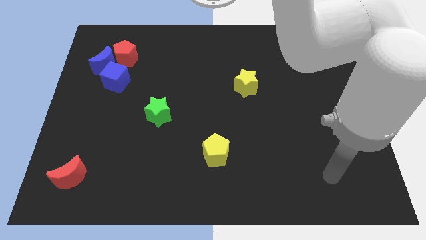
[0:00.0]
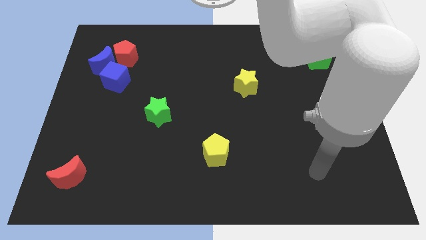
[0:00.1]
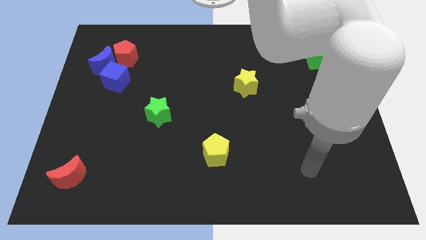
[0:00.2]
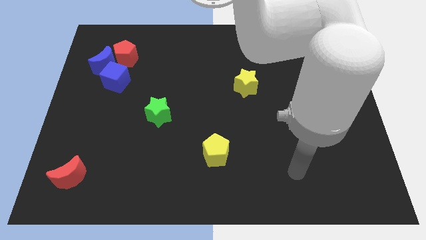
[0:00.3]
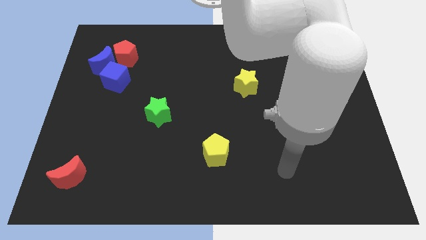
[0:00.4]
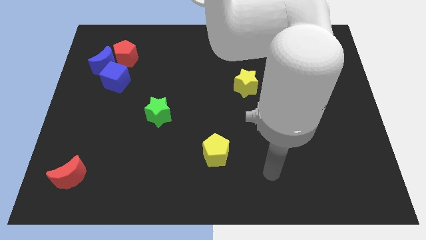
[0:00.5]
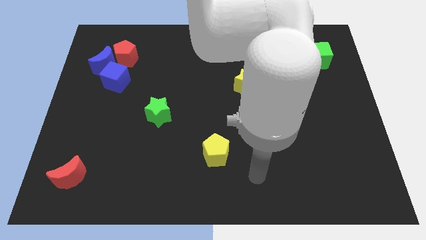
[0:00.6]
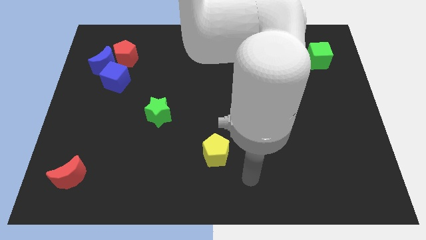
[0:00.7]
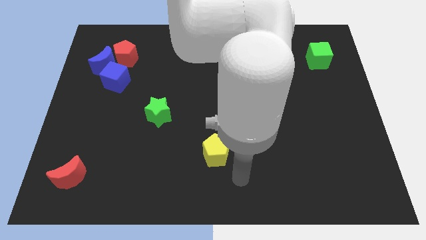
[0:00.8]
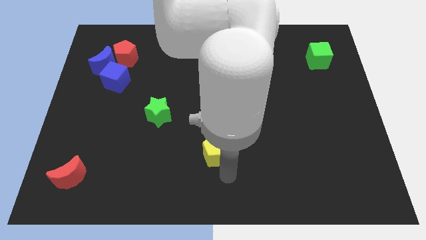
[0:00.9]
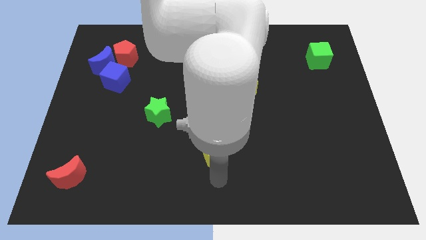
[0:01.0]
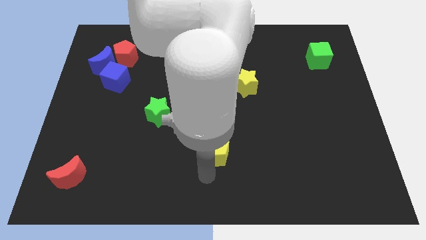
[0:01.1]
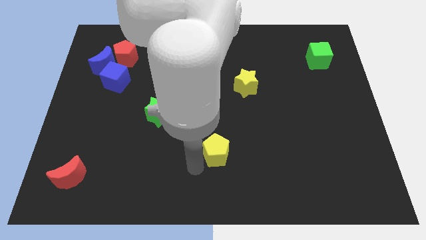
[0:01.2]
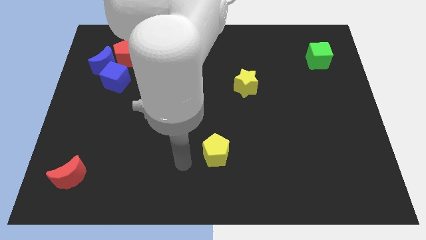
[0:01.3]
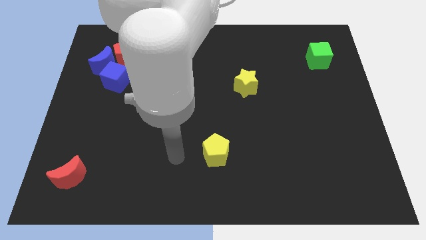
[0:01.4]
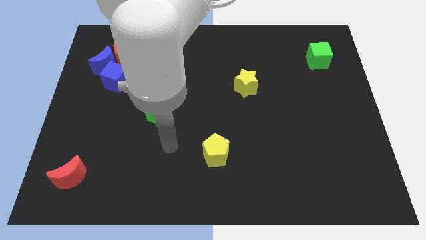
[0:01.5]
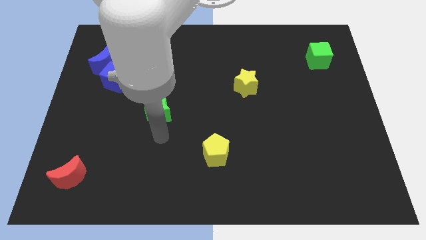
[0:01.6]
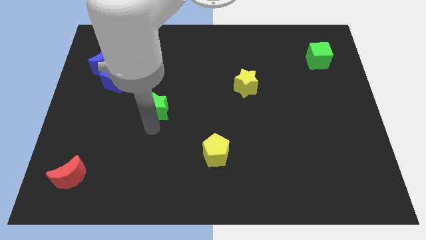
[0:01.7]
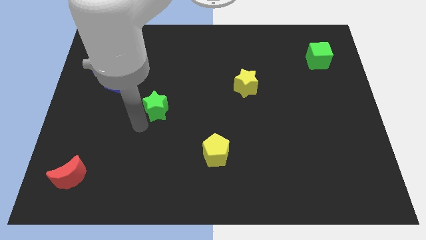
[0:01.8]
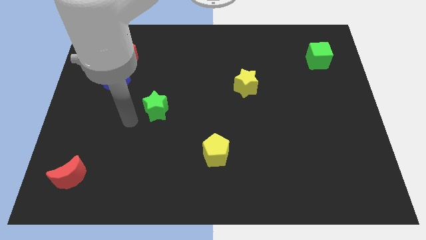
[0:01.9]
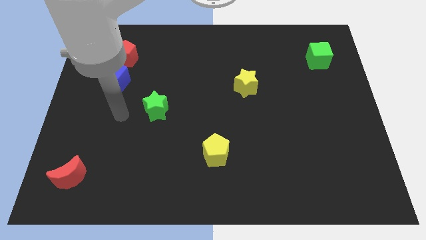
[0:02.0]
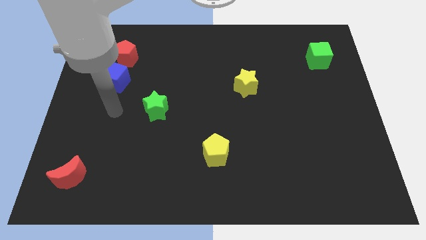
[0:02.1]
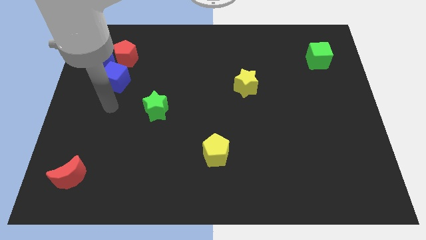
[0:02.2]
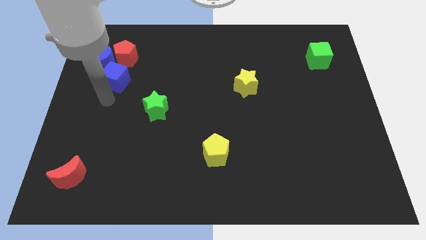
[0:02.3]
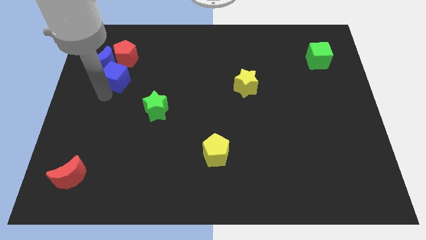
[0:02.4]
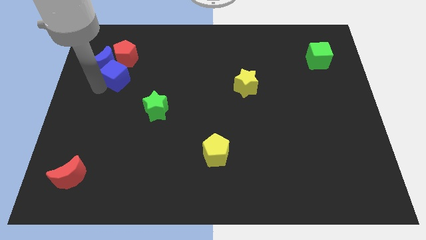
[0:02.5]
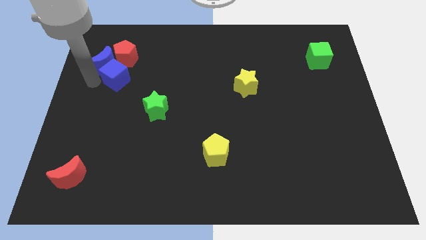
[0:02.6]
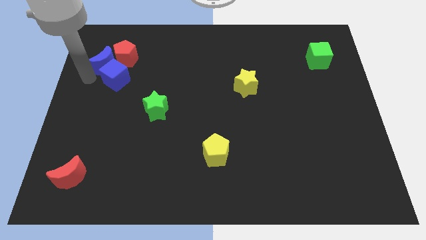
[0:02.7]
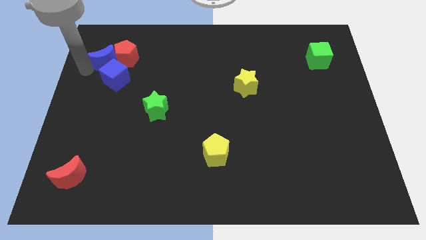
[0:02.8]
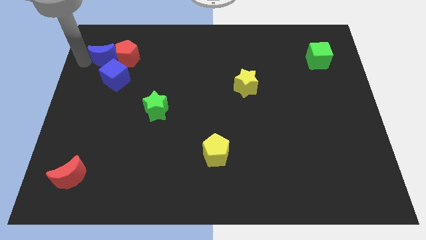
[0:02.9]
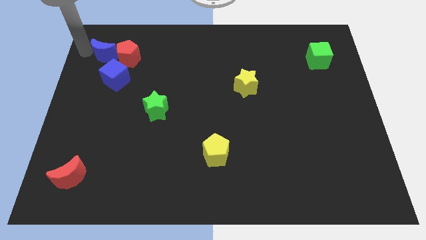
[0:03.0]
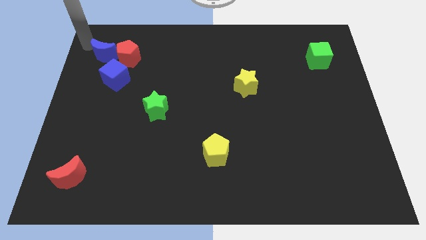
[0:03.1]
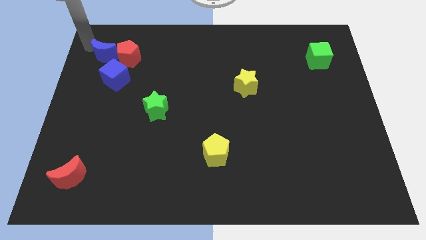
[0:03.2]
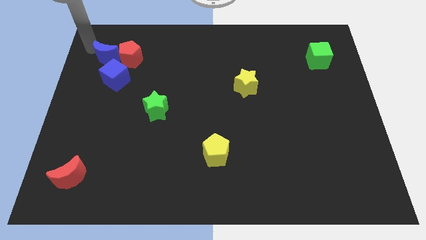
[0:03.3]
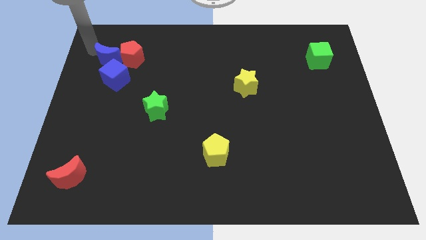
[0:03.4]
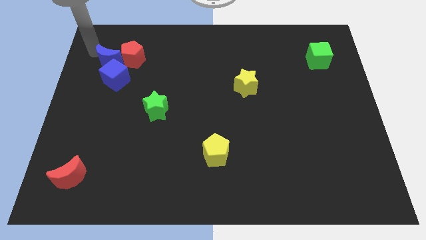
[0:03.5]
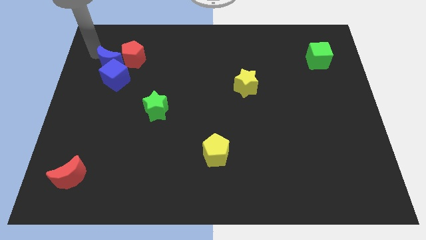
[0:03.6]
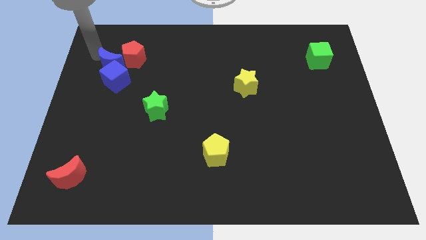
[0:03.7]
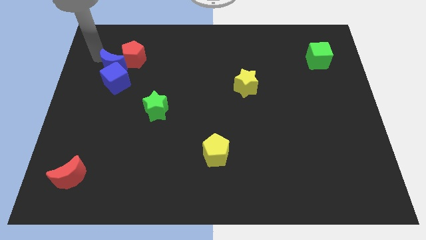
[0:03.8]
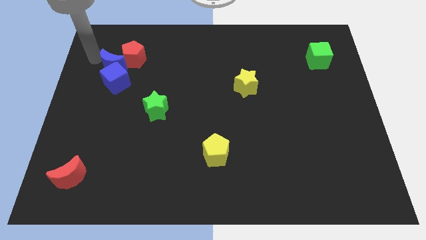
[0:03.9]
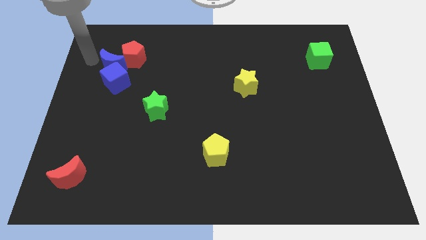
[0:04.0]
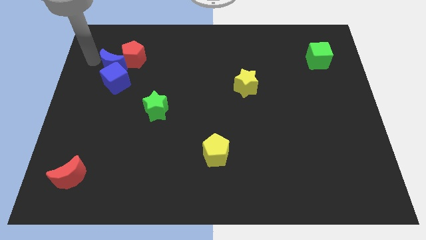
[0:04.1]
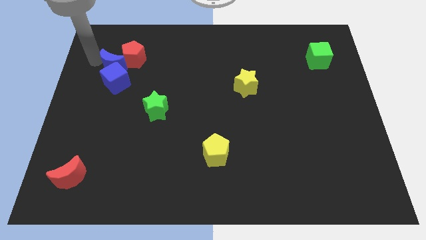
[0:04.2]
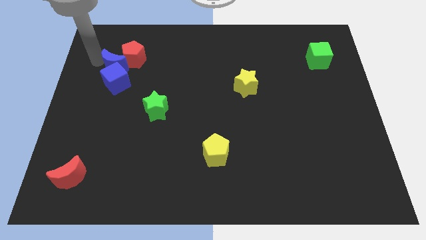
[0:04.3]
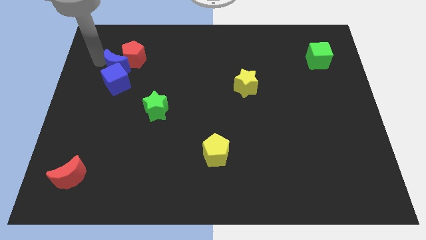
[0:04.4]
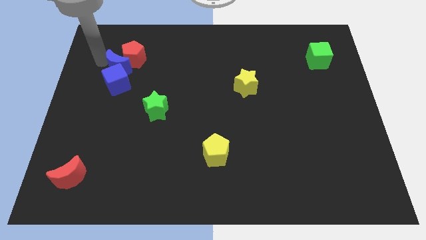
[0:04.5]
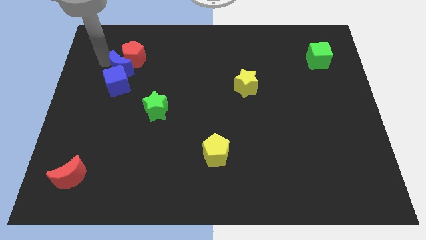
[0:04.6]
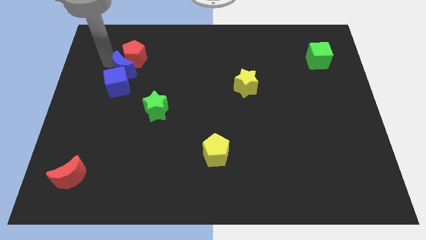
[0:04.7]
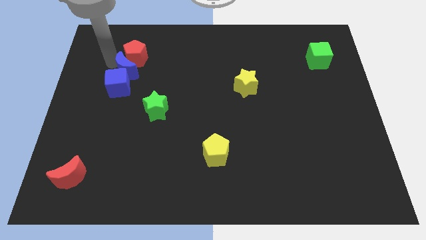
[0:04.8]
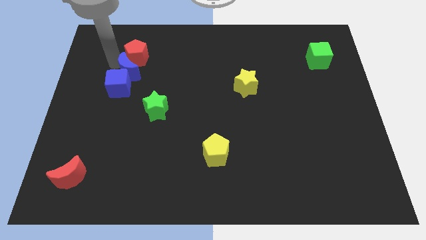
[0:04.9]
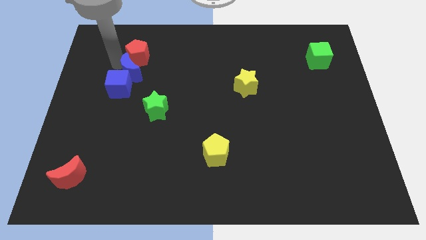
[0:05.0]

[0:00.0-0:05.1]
slide the blue moon to the right a little

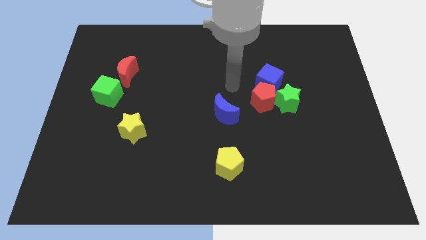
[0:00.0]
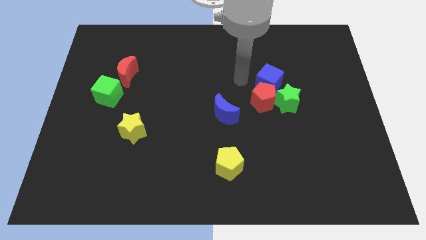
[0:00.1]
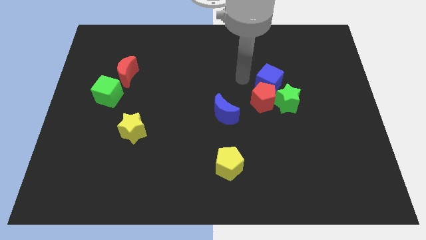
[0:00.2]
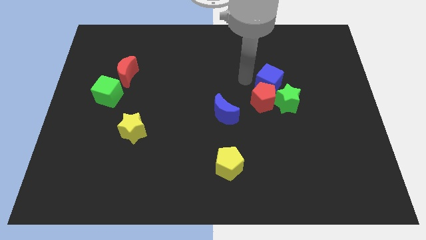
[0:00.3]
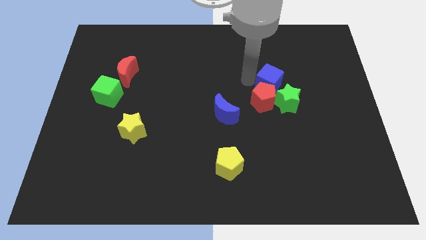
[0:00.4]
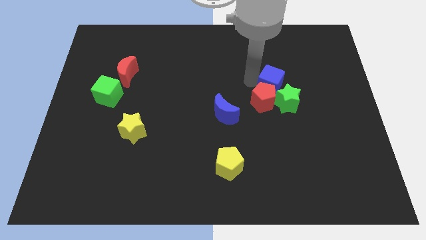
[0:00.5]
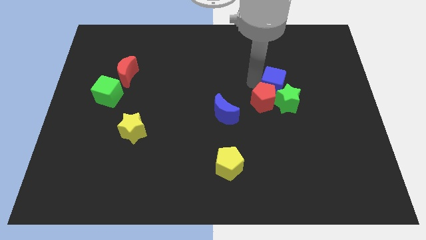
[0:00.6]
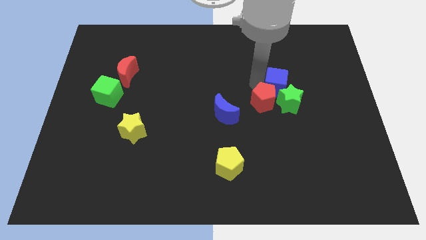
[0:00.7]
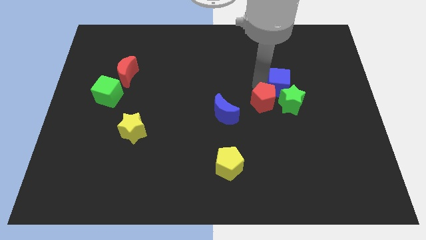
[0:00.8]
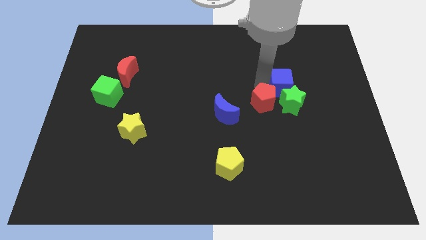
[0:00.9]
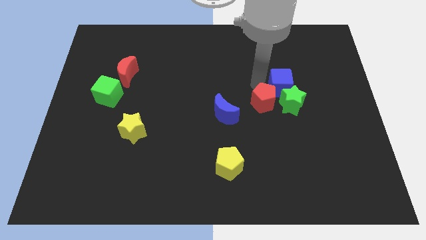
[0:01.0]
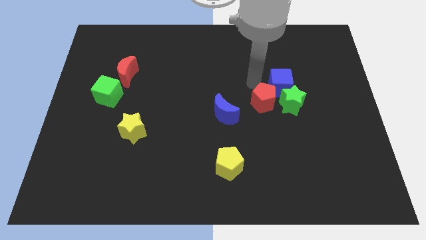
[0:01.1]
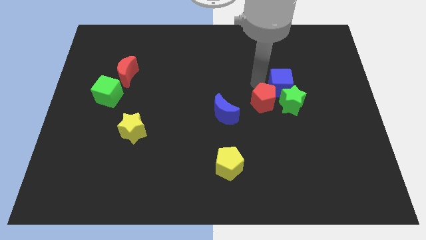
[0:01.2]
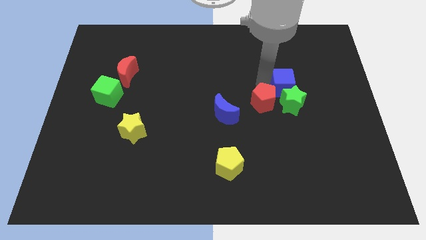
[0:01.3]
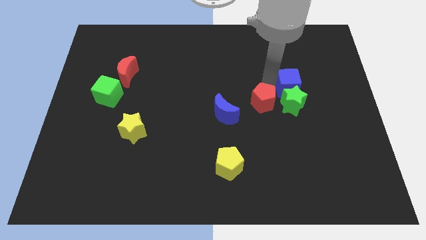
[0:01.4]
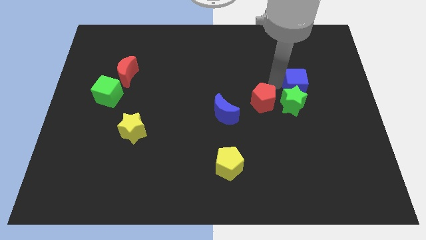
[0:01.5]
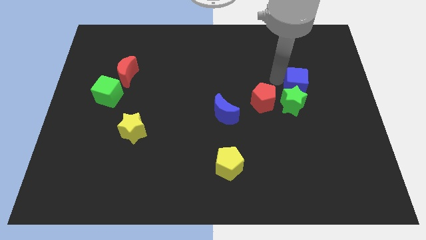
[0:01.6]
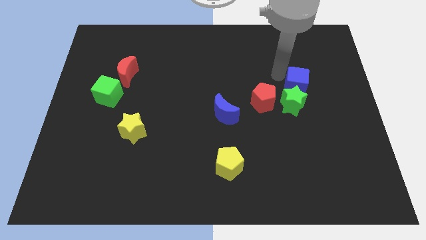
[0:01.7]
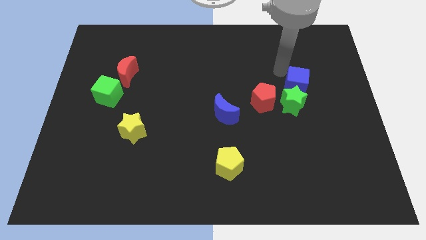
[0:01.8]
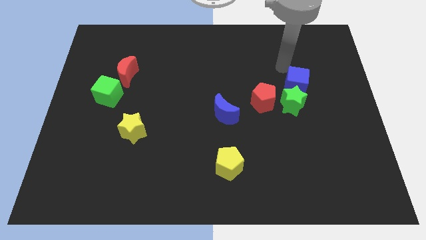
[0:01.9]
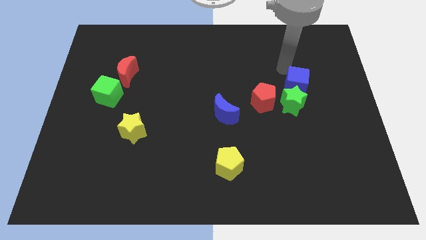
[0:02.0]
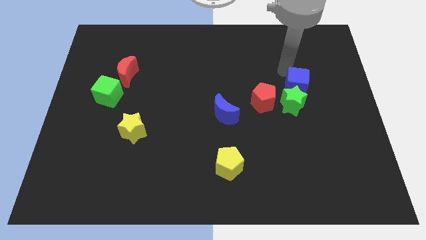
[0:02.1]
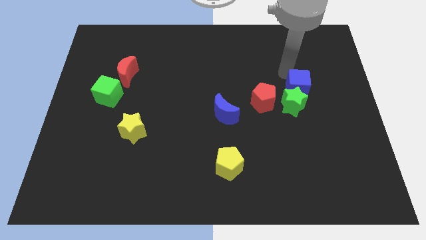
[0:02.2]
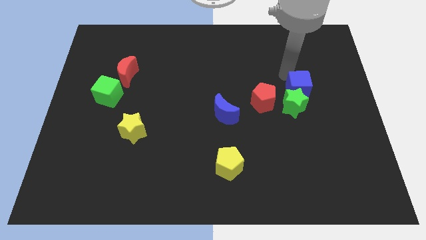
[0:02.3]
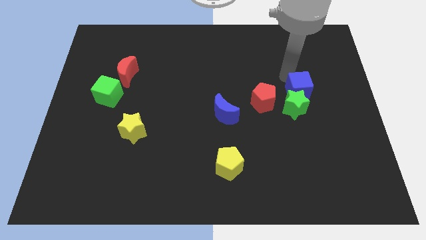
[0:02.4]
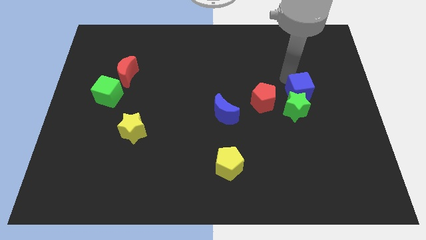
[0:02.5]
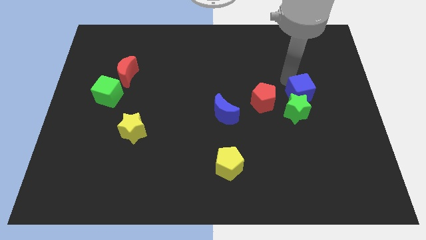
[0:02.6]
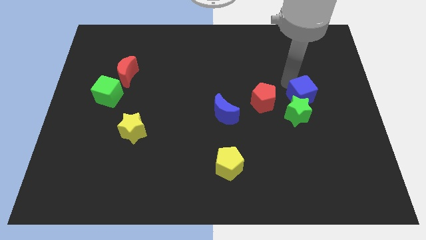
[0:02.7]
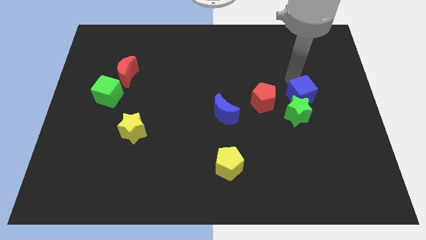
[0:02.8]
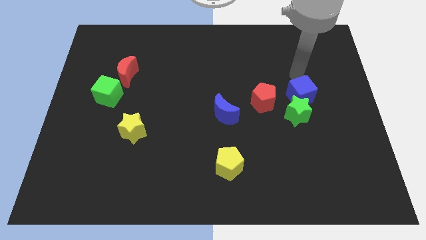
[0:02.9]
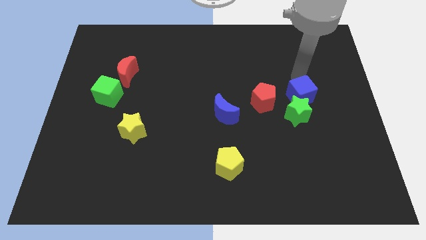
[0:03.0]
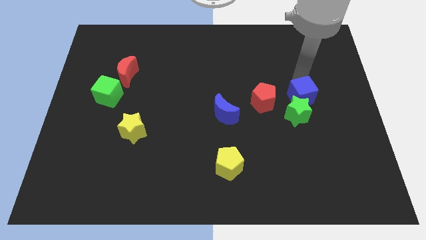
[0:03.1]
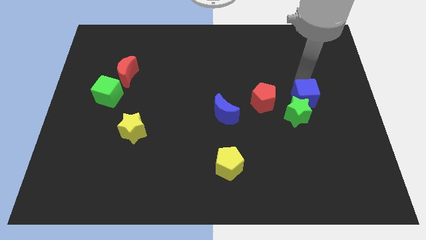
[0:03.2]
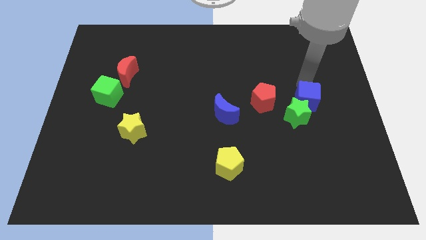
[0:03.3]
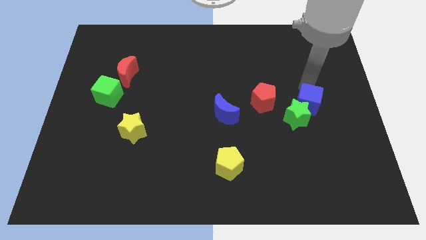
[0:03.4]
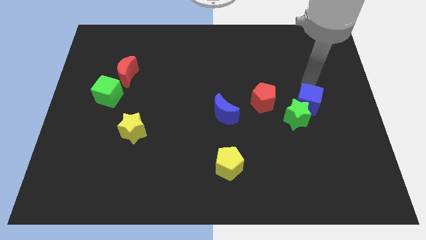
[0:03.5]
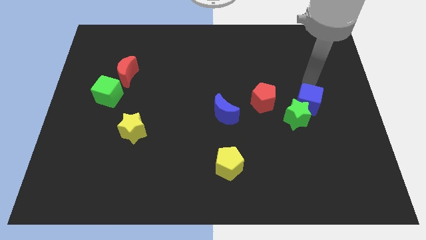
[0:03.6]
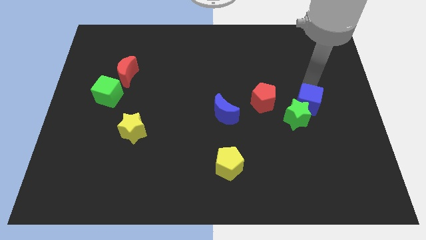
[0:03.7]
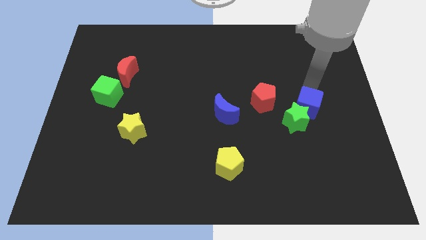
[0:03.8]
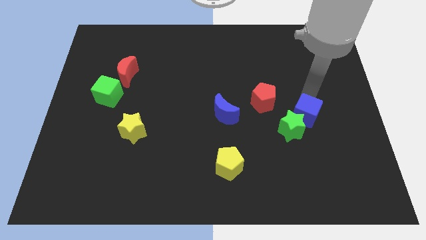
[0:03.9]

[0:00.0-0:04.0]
move the blue cube downwards a little
